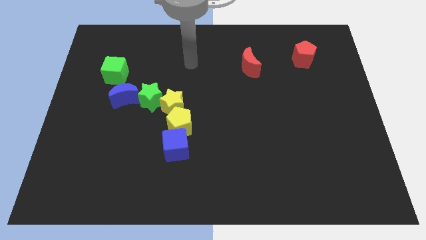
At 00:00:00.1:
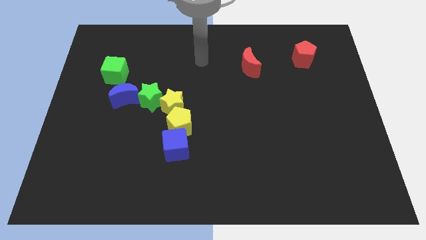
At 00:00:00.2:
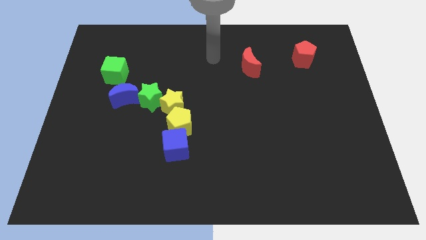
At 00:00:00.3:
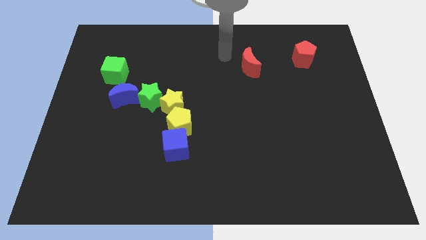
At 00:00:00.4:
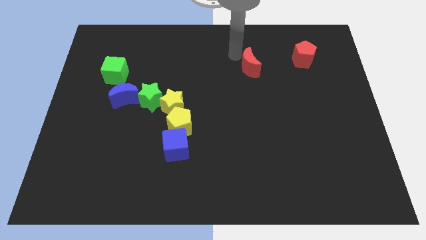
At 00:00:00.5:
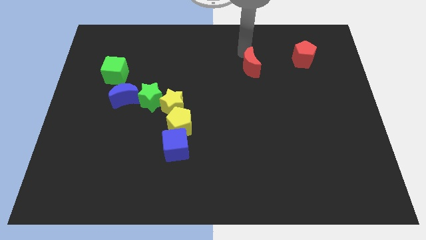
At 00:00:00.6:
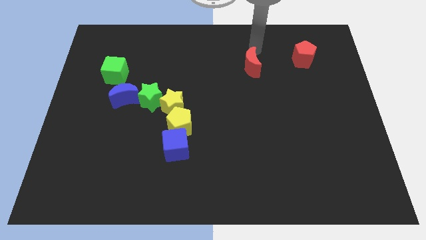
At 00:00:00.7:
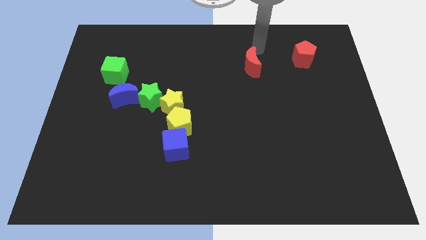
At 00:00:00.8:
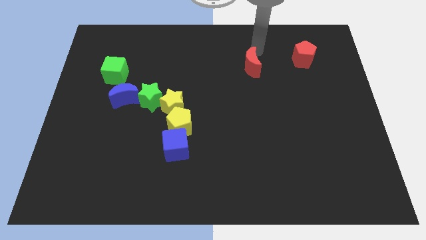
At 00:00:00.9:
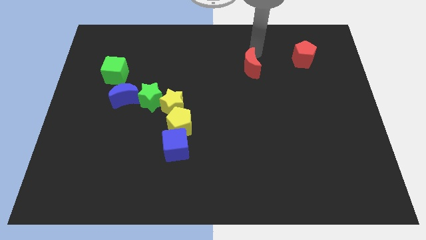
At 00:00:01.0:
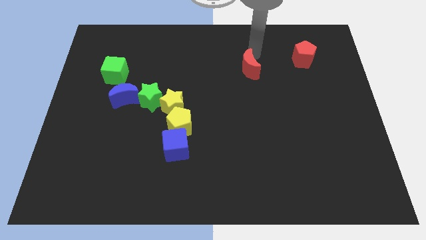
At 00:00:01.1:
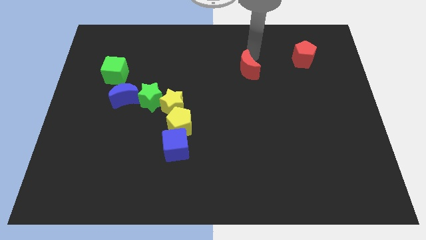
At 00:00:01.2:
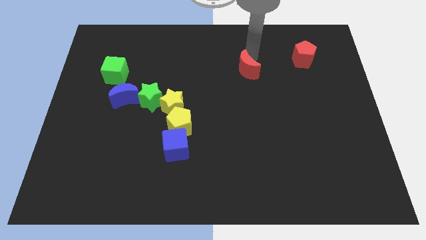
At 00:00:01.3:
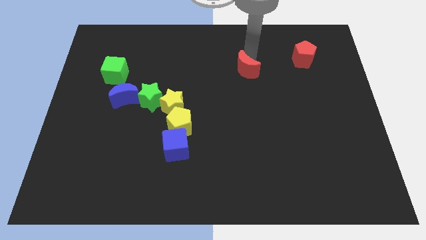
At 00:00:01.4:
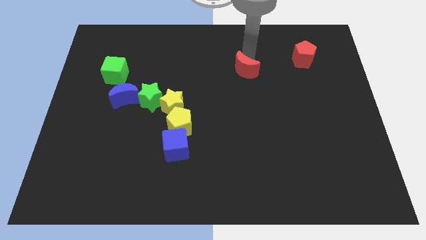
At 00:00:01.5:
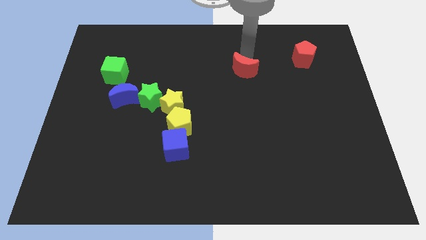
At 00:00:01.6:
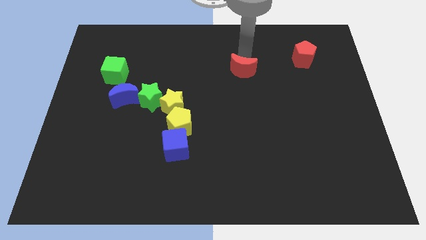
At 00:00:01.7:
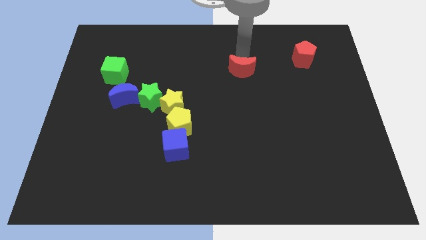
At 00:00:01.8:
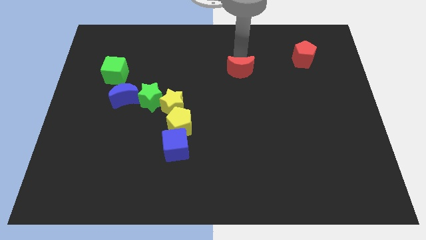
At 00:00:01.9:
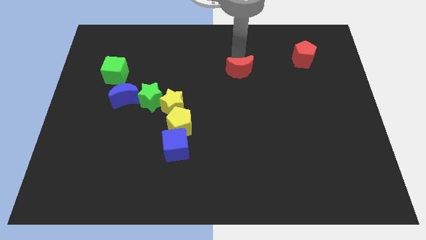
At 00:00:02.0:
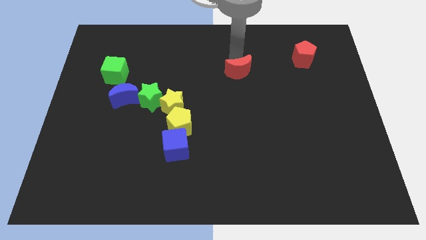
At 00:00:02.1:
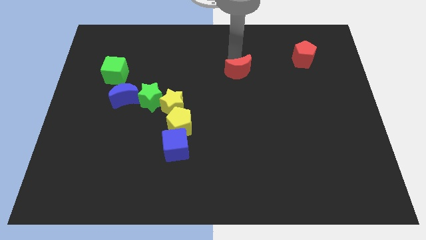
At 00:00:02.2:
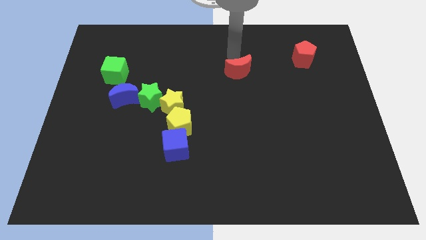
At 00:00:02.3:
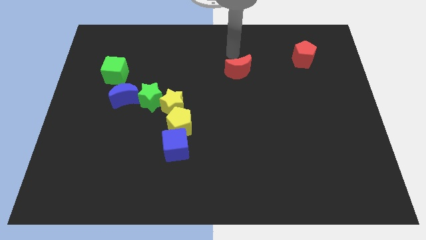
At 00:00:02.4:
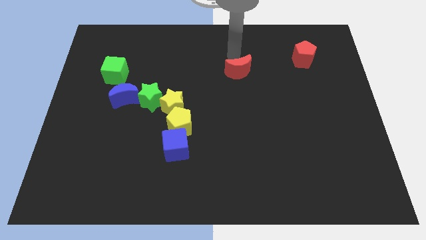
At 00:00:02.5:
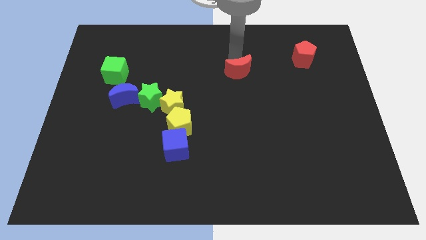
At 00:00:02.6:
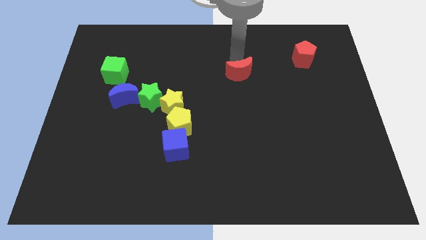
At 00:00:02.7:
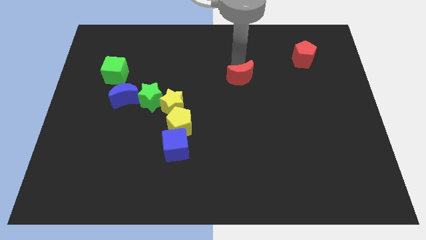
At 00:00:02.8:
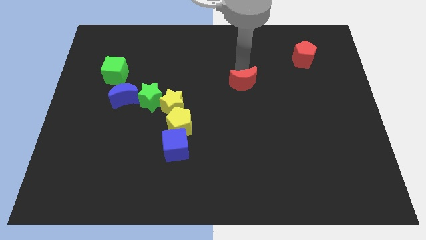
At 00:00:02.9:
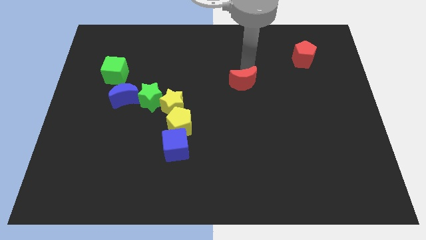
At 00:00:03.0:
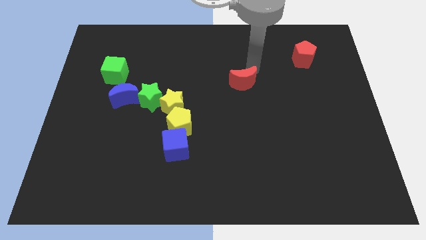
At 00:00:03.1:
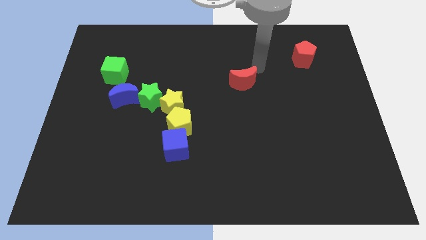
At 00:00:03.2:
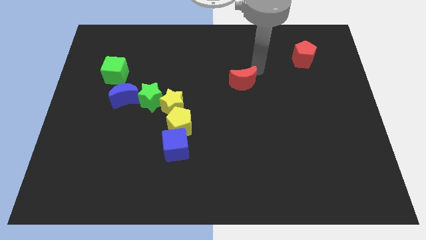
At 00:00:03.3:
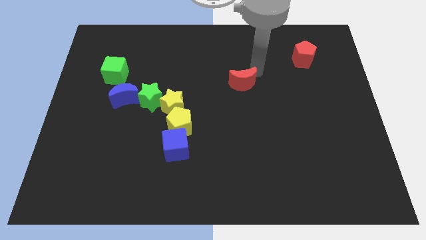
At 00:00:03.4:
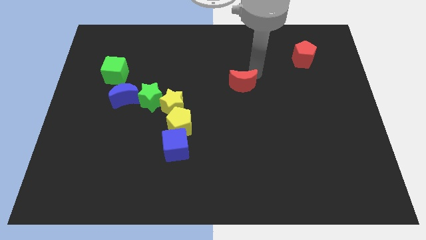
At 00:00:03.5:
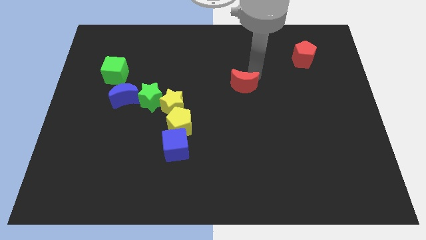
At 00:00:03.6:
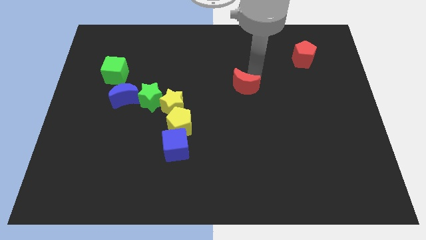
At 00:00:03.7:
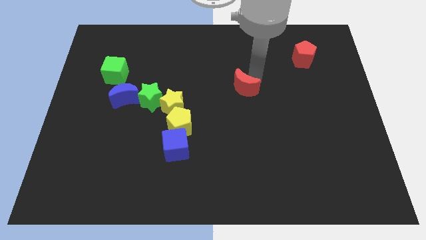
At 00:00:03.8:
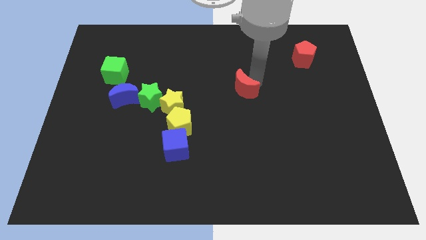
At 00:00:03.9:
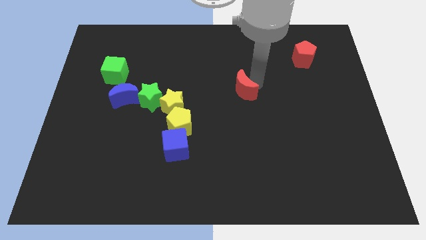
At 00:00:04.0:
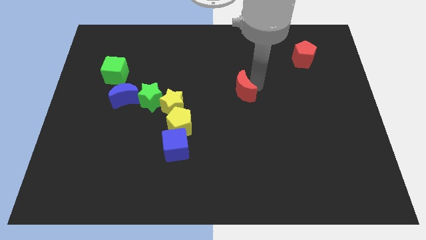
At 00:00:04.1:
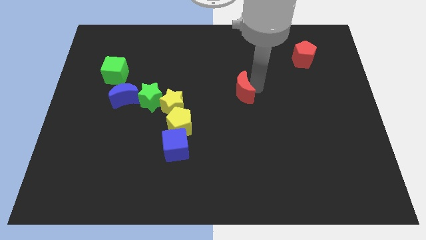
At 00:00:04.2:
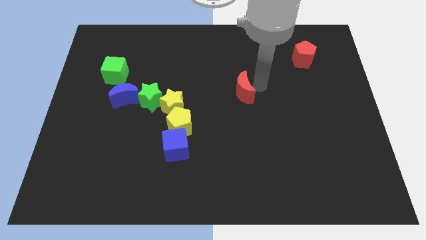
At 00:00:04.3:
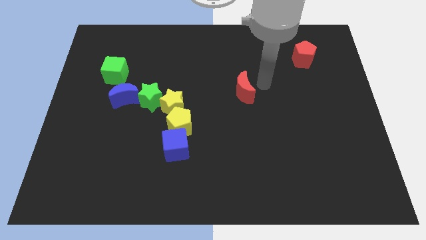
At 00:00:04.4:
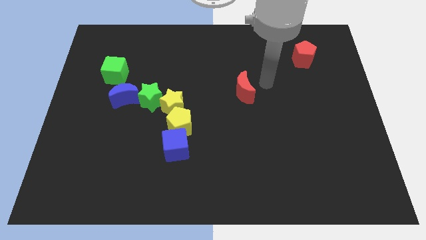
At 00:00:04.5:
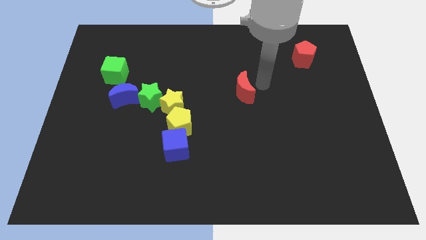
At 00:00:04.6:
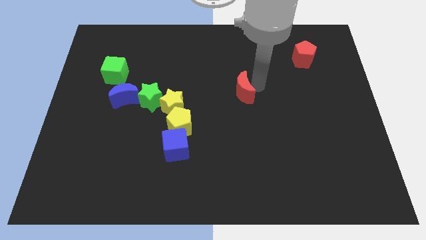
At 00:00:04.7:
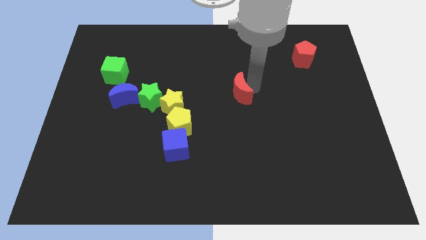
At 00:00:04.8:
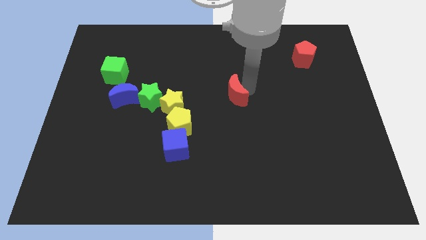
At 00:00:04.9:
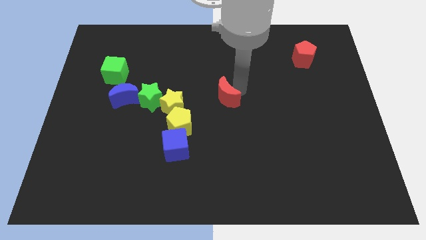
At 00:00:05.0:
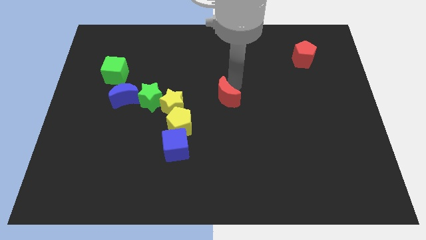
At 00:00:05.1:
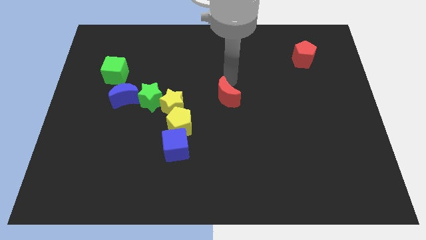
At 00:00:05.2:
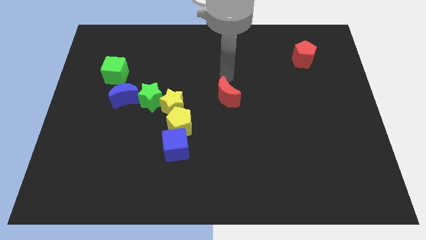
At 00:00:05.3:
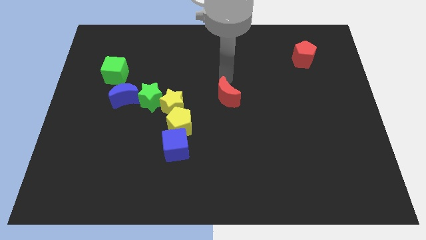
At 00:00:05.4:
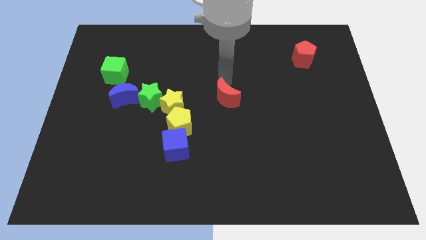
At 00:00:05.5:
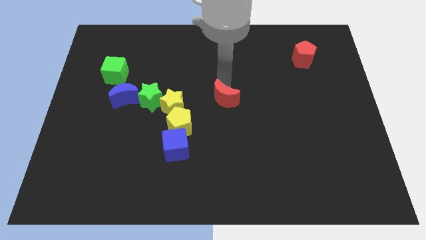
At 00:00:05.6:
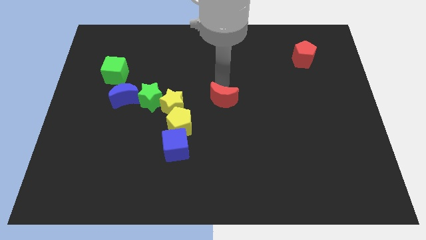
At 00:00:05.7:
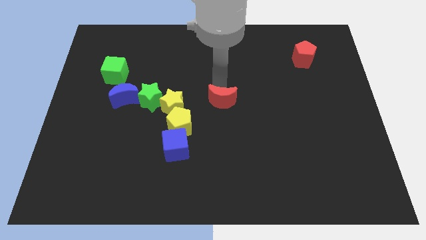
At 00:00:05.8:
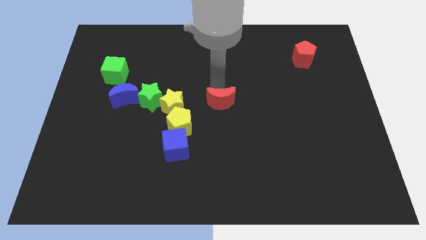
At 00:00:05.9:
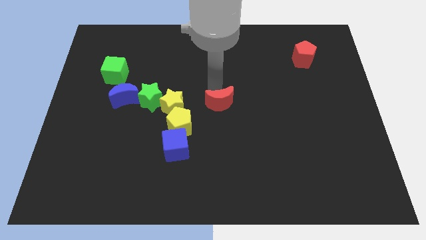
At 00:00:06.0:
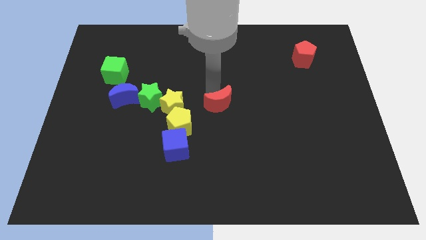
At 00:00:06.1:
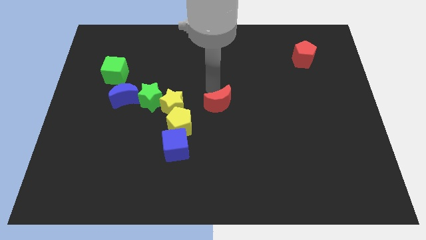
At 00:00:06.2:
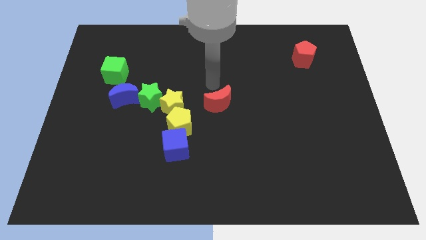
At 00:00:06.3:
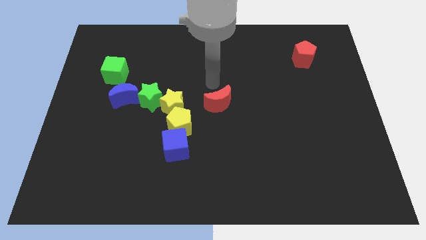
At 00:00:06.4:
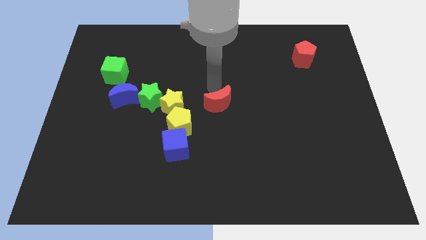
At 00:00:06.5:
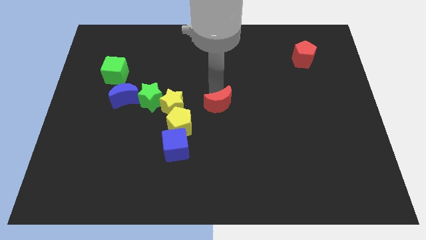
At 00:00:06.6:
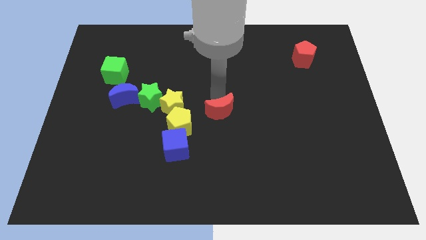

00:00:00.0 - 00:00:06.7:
put the red moon just right of the yellow pentagon

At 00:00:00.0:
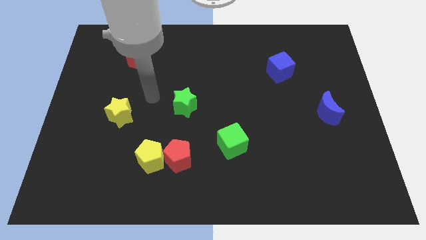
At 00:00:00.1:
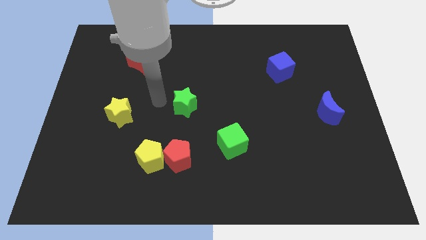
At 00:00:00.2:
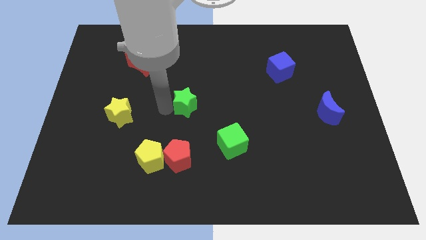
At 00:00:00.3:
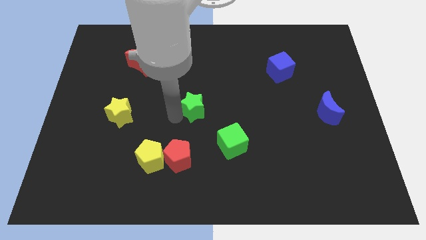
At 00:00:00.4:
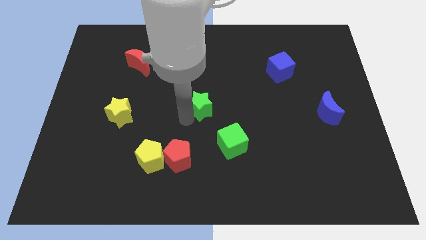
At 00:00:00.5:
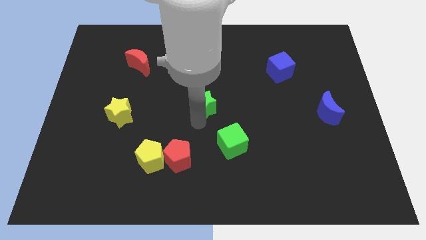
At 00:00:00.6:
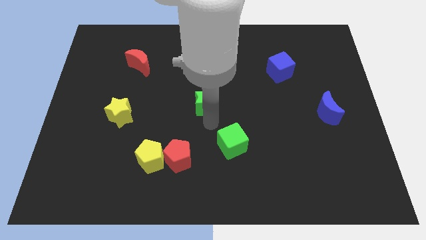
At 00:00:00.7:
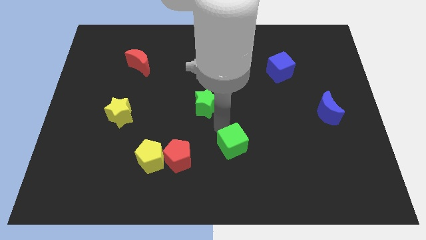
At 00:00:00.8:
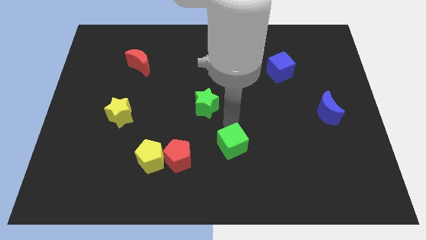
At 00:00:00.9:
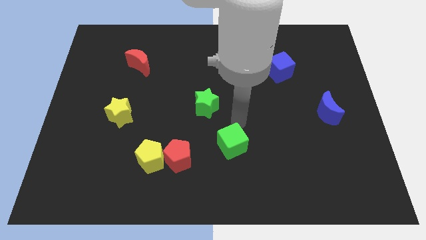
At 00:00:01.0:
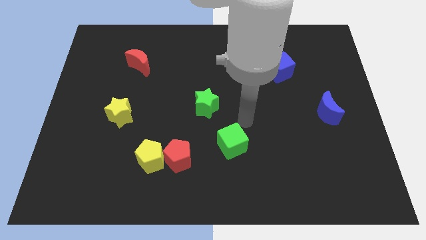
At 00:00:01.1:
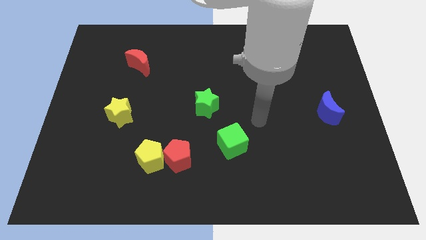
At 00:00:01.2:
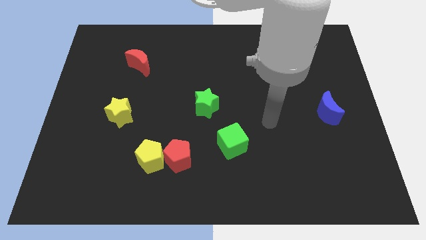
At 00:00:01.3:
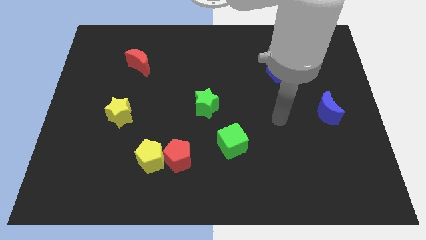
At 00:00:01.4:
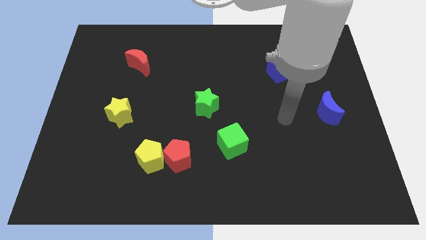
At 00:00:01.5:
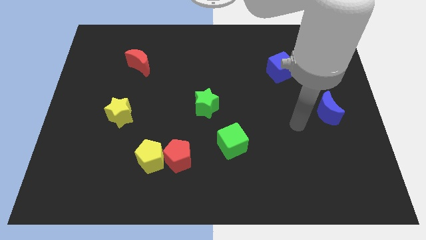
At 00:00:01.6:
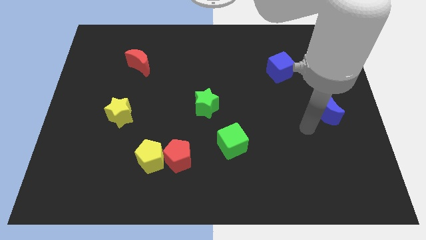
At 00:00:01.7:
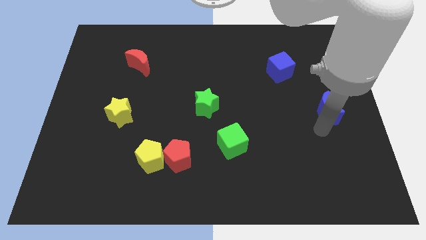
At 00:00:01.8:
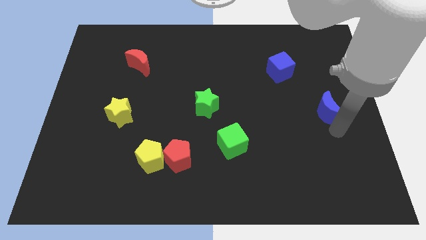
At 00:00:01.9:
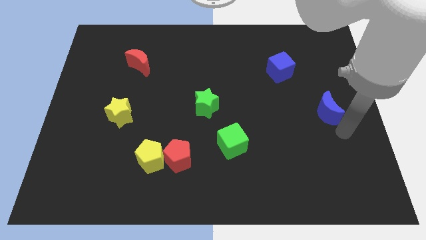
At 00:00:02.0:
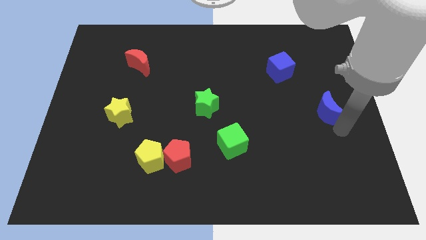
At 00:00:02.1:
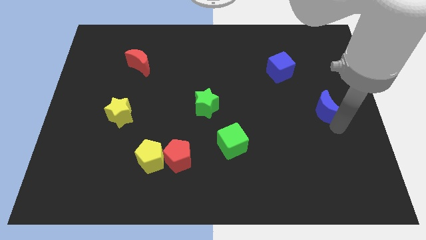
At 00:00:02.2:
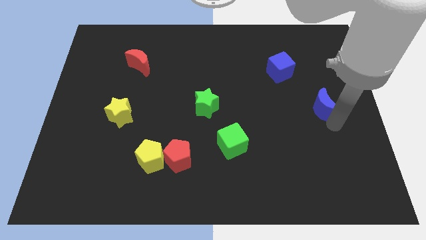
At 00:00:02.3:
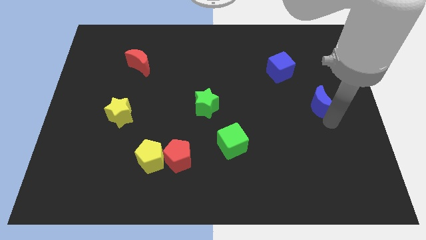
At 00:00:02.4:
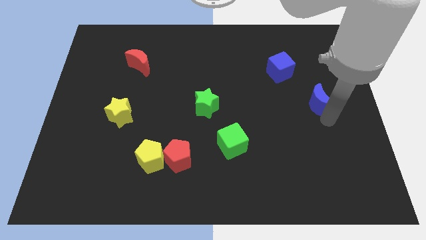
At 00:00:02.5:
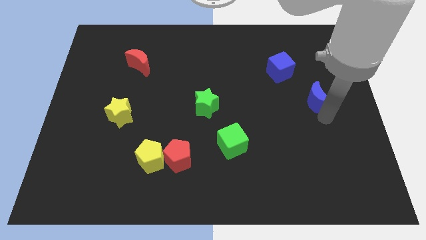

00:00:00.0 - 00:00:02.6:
move the blue moon to the bottom right of the blue cube
